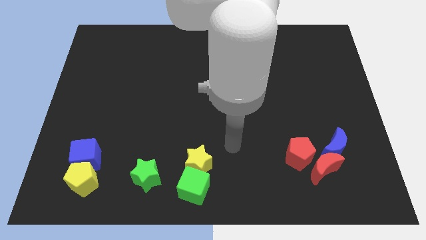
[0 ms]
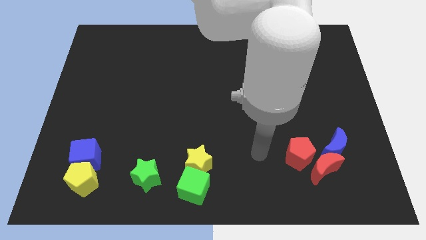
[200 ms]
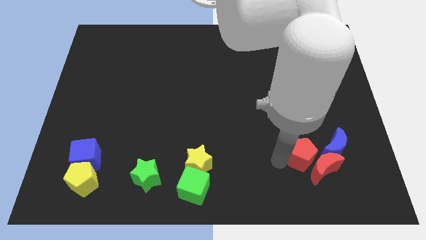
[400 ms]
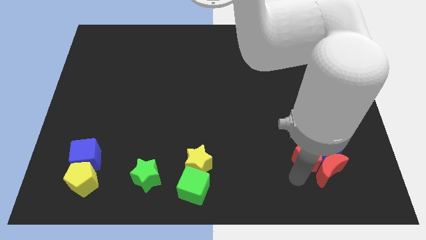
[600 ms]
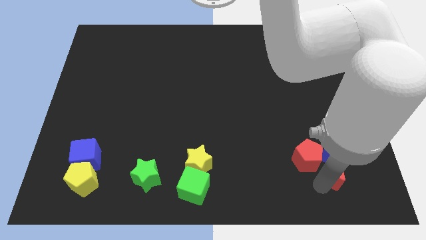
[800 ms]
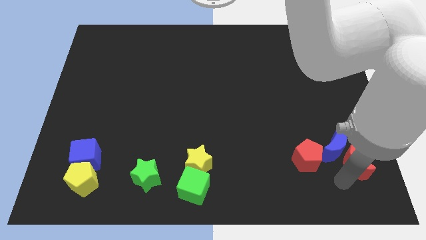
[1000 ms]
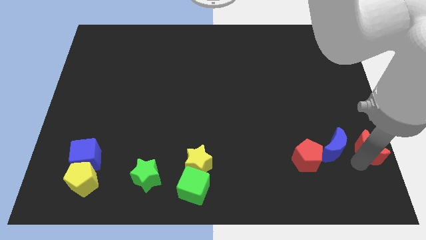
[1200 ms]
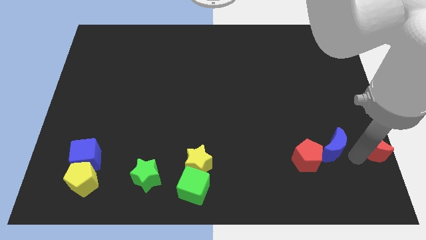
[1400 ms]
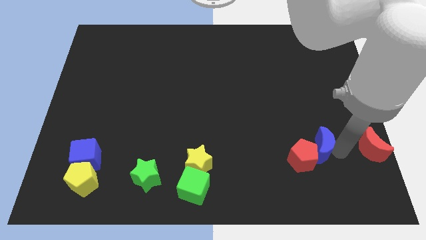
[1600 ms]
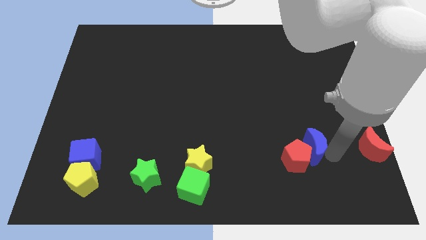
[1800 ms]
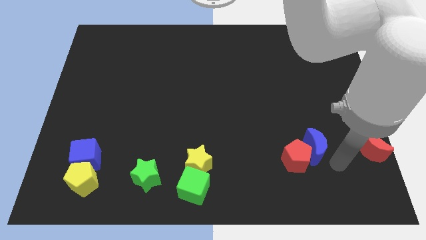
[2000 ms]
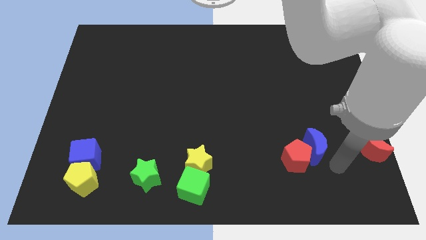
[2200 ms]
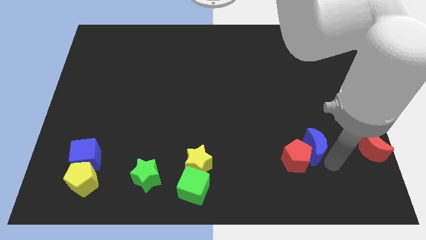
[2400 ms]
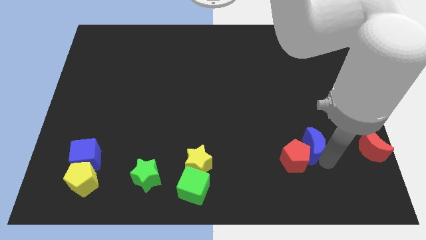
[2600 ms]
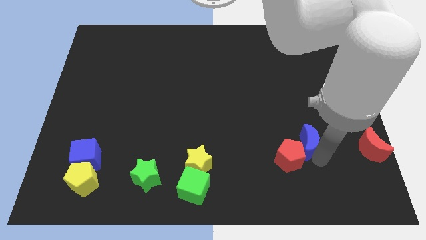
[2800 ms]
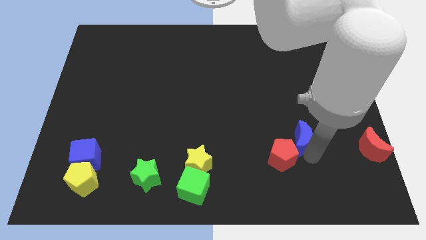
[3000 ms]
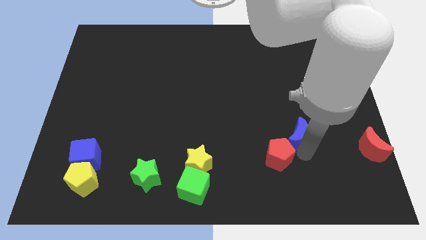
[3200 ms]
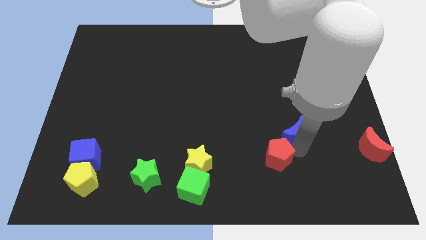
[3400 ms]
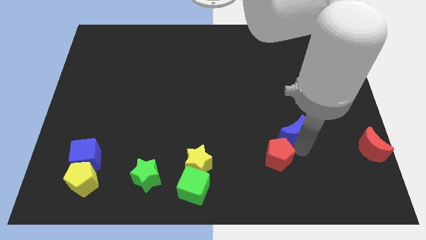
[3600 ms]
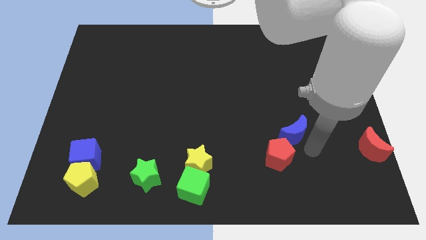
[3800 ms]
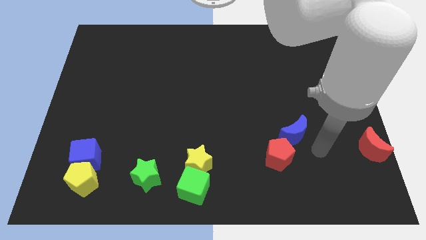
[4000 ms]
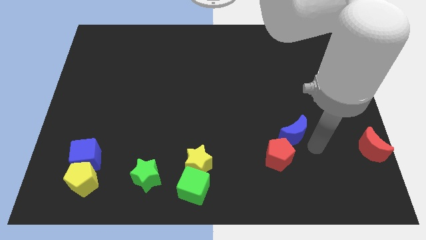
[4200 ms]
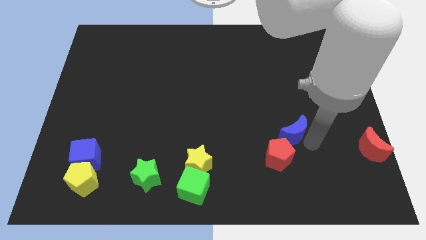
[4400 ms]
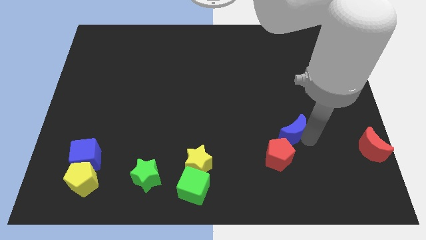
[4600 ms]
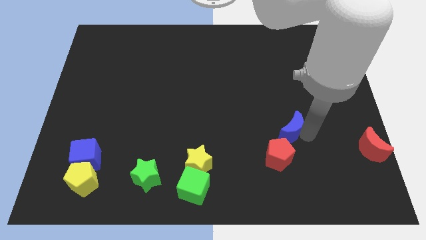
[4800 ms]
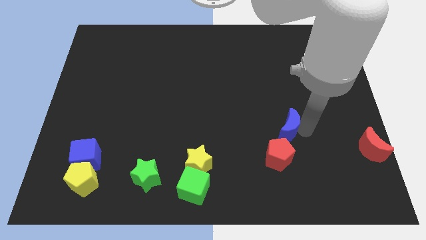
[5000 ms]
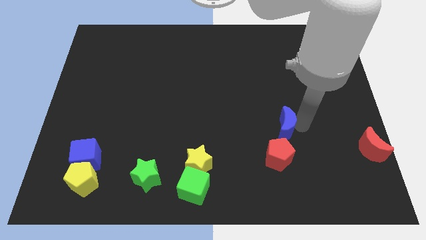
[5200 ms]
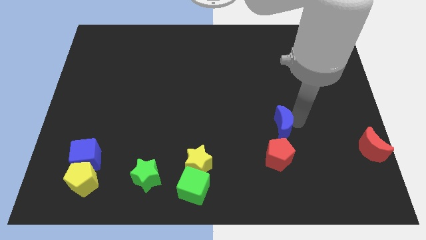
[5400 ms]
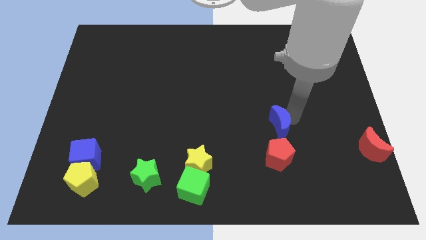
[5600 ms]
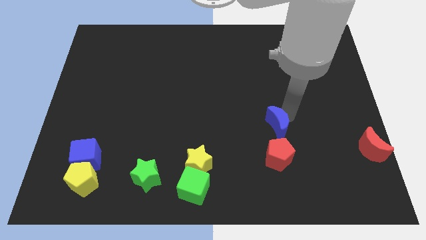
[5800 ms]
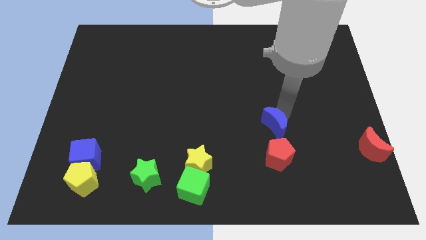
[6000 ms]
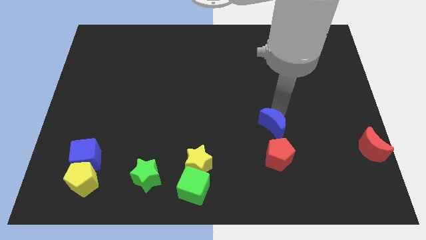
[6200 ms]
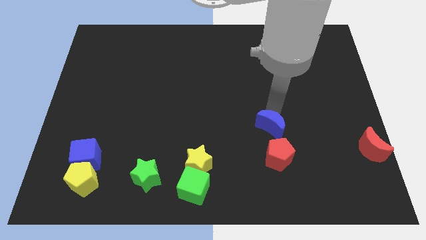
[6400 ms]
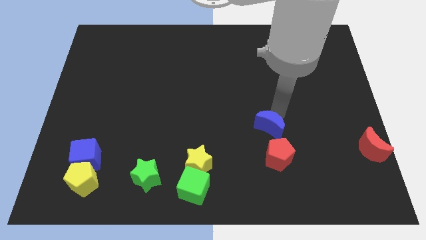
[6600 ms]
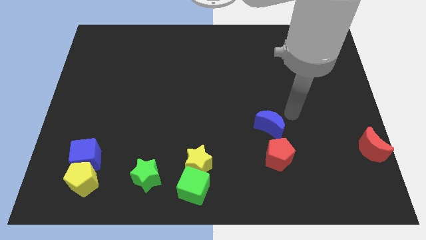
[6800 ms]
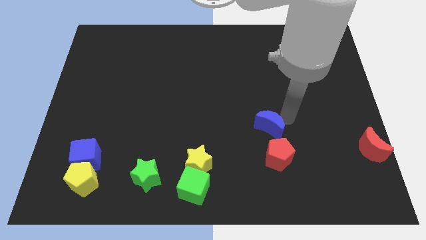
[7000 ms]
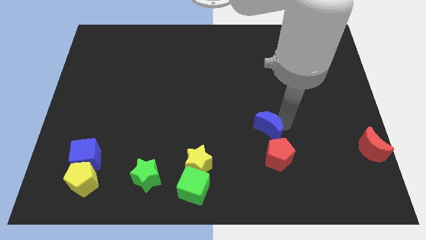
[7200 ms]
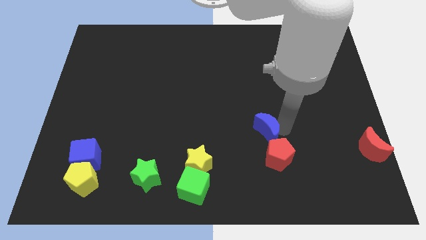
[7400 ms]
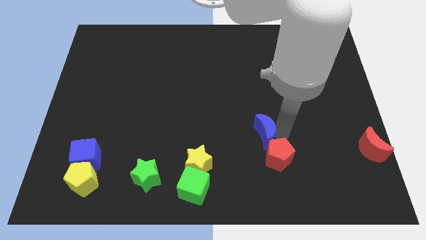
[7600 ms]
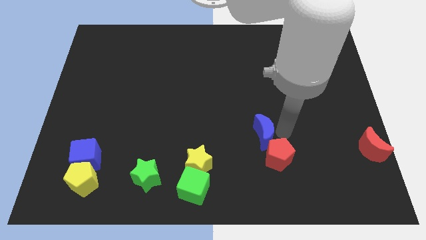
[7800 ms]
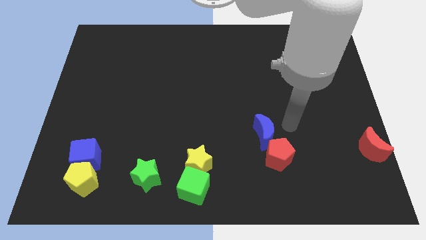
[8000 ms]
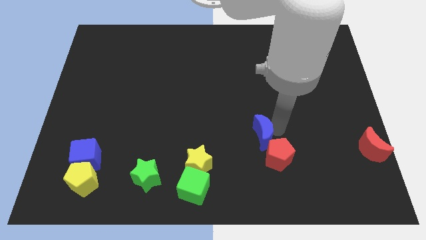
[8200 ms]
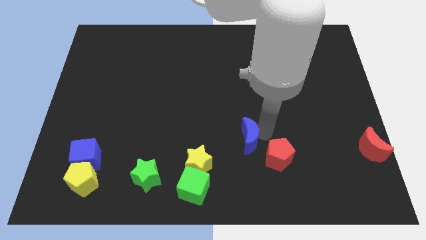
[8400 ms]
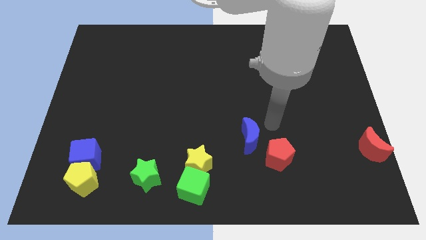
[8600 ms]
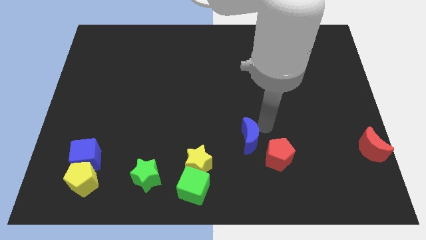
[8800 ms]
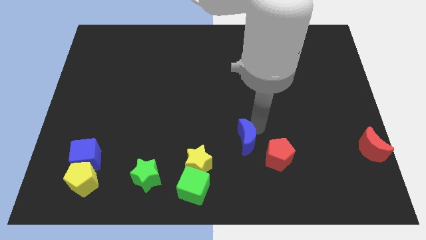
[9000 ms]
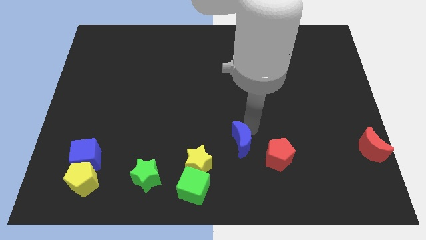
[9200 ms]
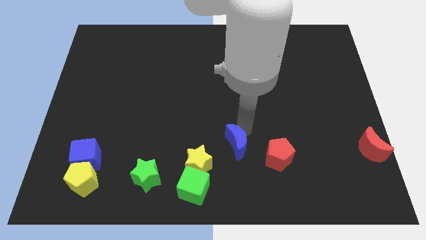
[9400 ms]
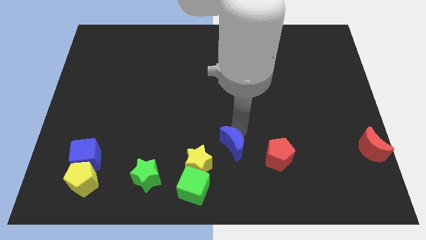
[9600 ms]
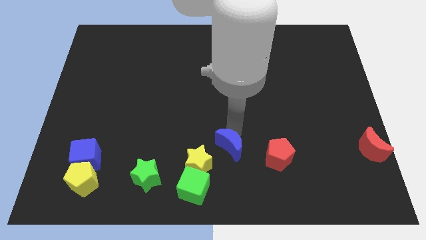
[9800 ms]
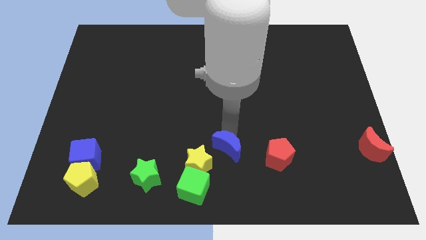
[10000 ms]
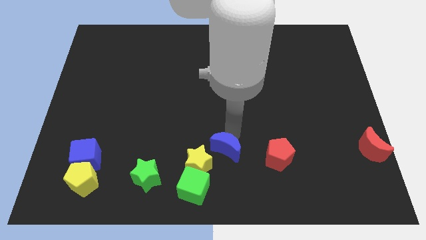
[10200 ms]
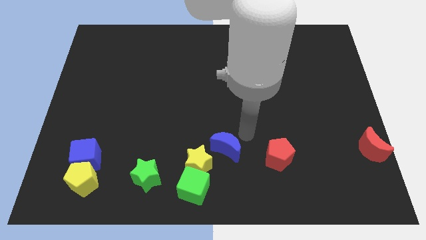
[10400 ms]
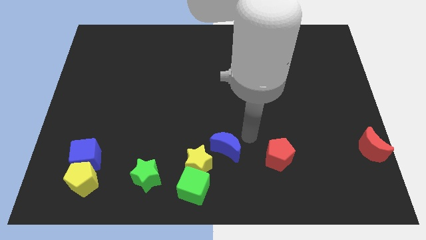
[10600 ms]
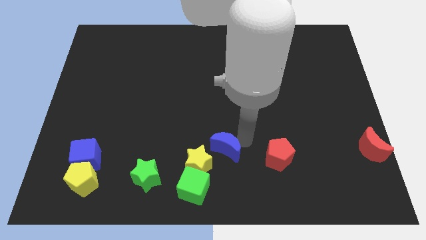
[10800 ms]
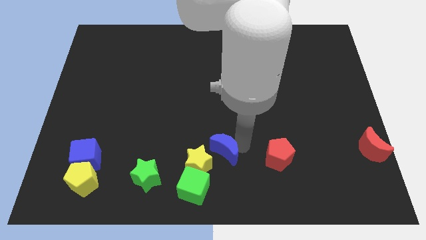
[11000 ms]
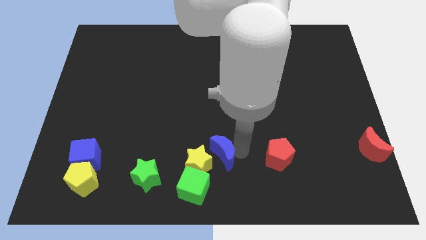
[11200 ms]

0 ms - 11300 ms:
push the blue moon to the yellow star

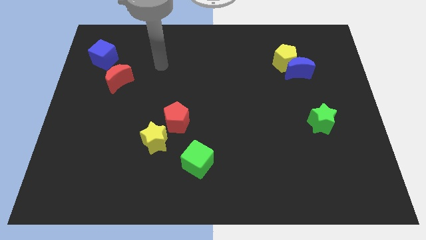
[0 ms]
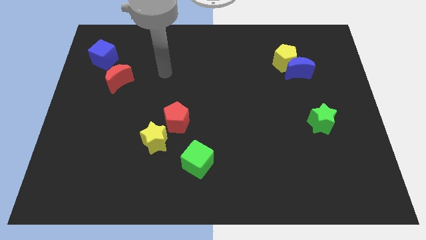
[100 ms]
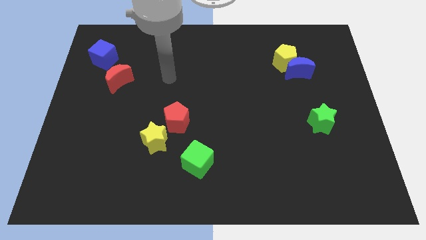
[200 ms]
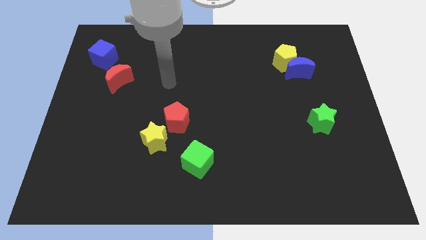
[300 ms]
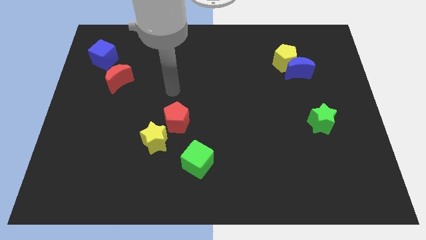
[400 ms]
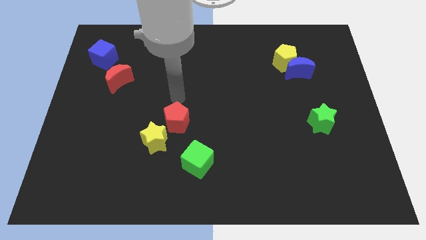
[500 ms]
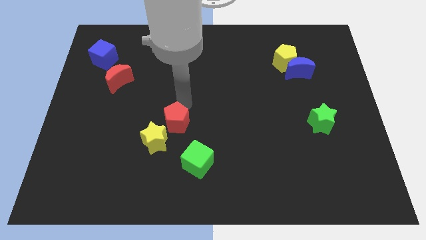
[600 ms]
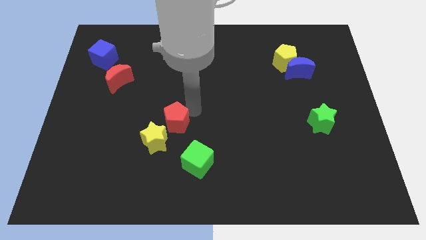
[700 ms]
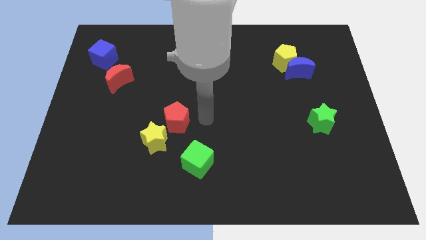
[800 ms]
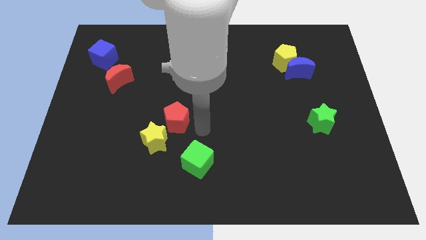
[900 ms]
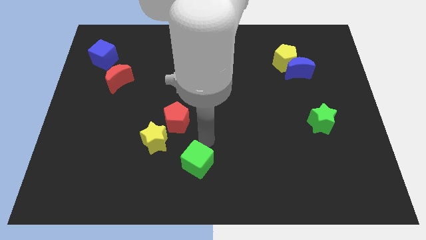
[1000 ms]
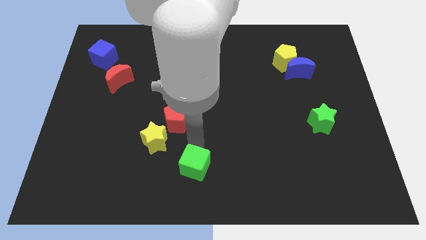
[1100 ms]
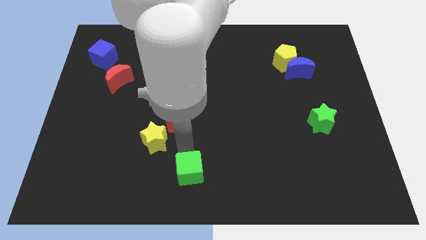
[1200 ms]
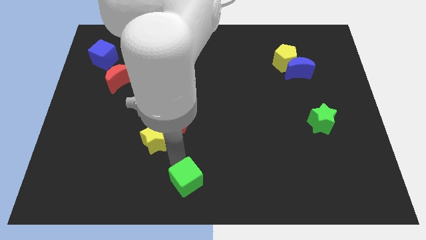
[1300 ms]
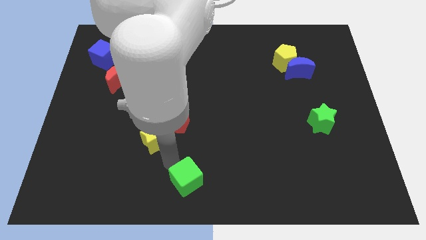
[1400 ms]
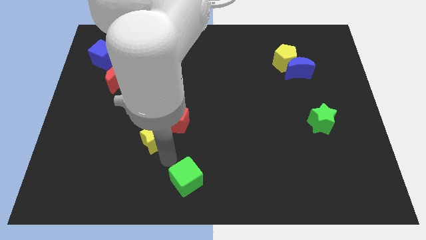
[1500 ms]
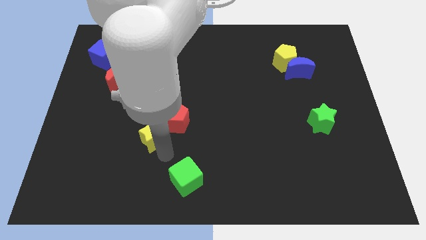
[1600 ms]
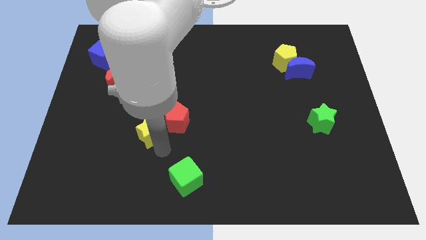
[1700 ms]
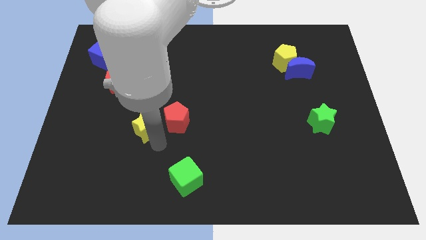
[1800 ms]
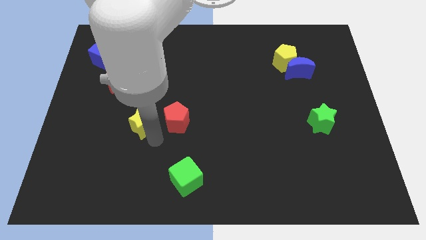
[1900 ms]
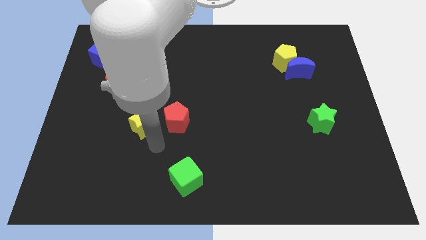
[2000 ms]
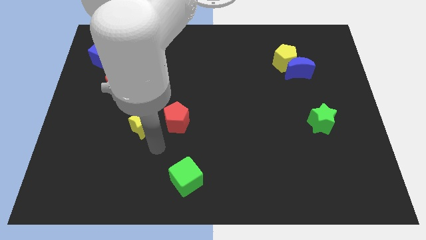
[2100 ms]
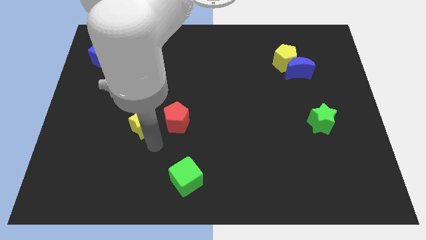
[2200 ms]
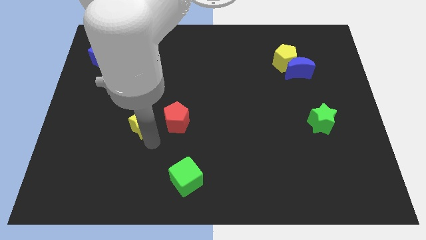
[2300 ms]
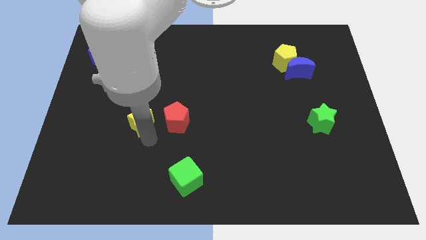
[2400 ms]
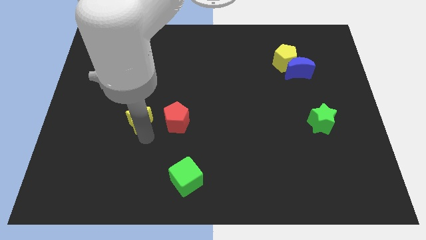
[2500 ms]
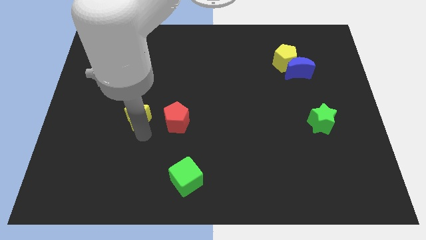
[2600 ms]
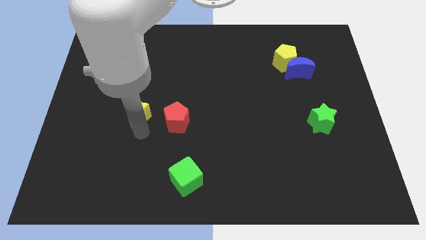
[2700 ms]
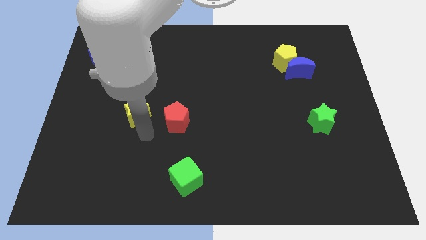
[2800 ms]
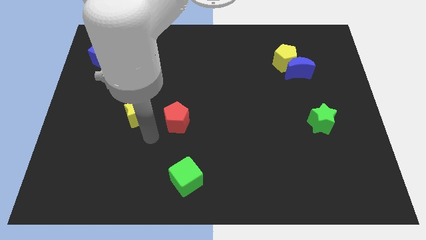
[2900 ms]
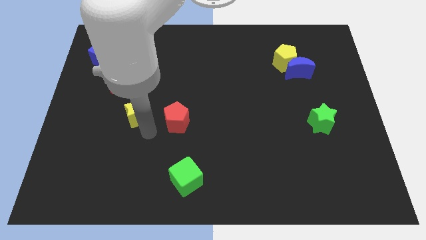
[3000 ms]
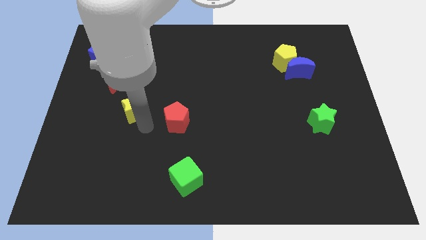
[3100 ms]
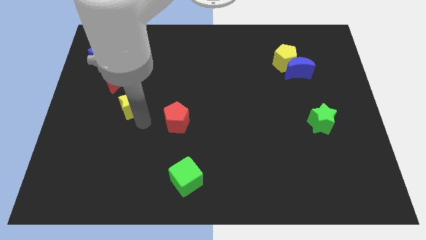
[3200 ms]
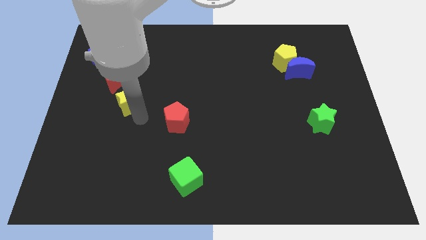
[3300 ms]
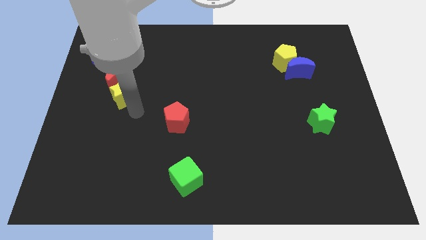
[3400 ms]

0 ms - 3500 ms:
move the yellow star close to the red moon
